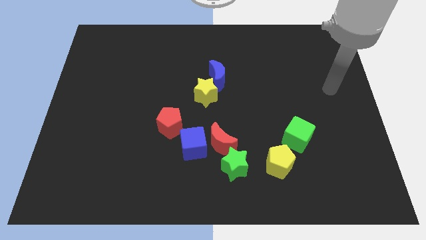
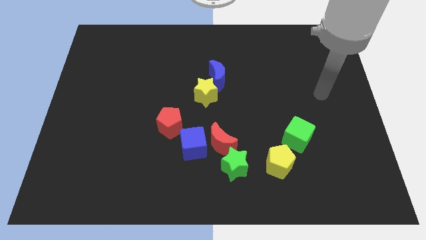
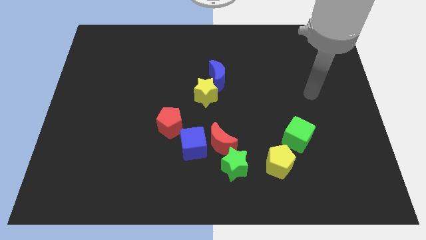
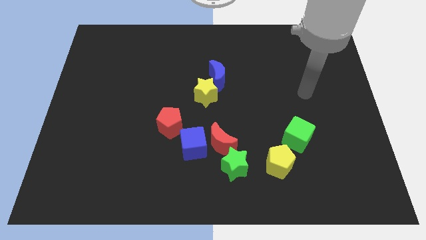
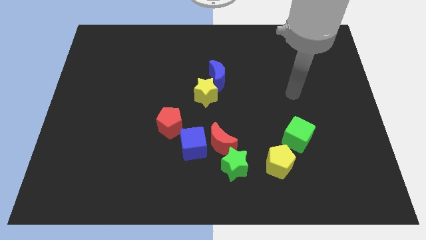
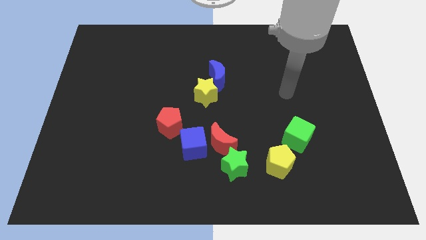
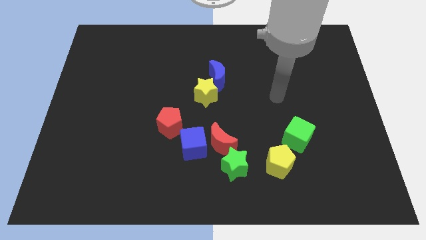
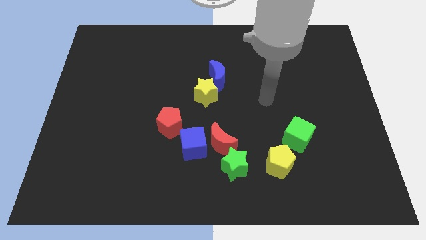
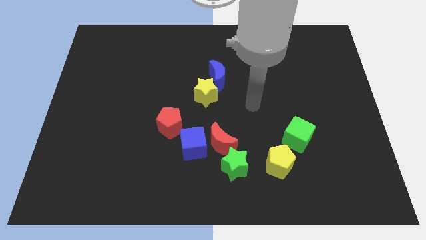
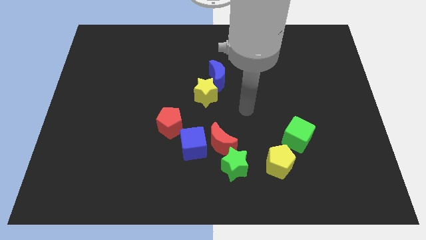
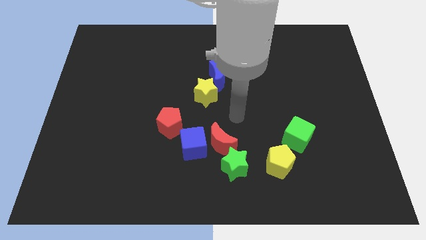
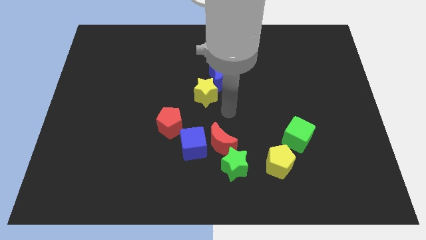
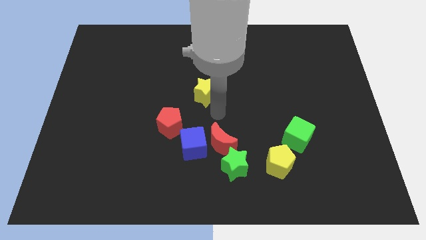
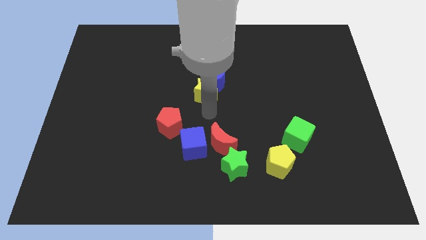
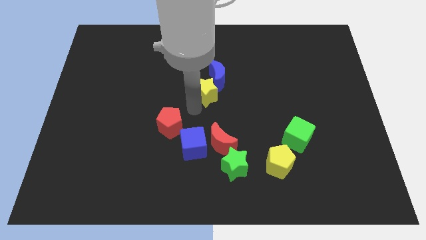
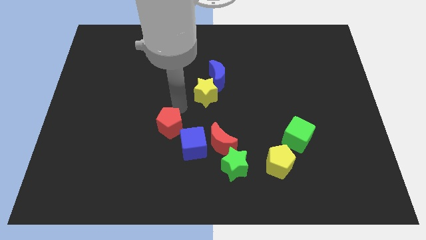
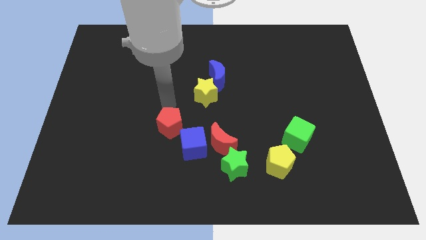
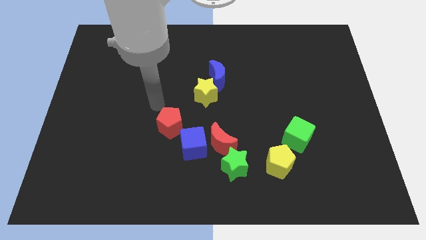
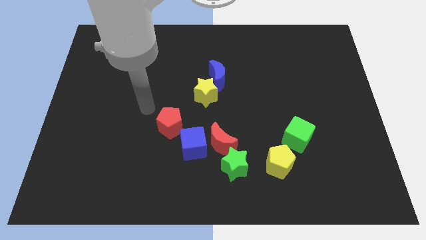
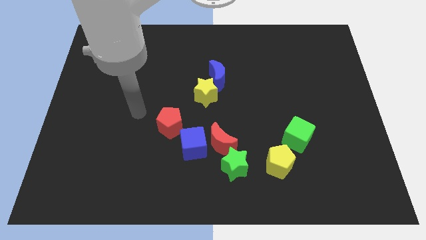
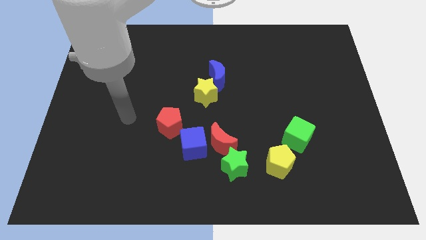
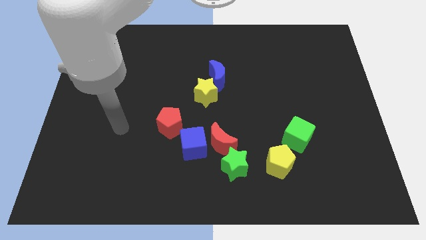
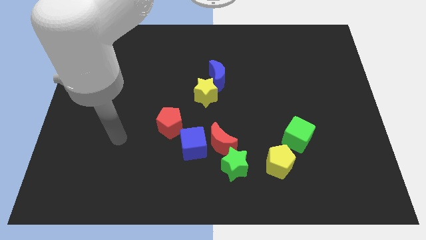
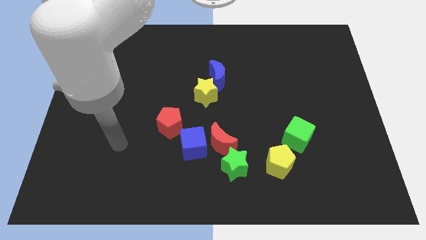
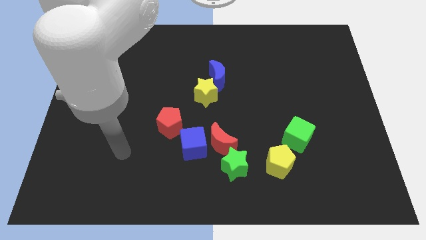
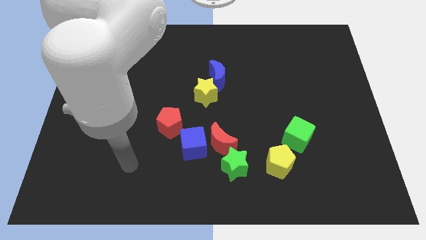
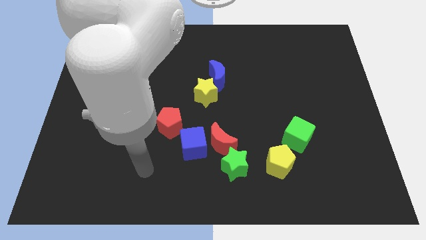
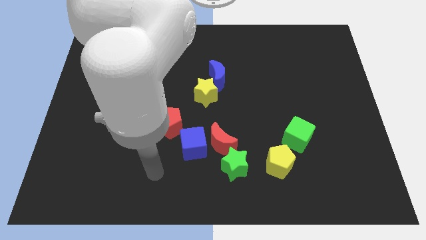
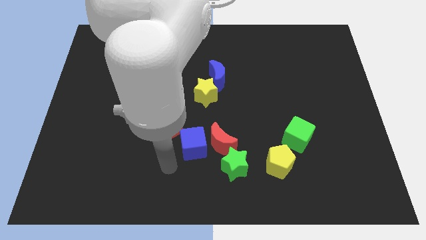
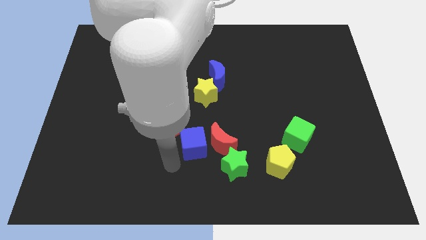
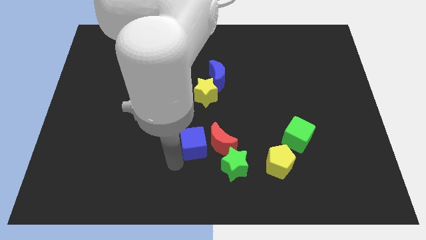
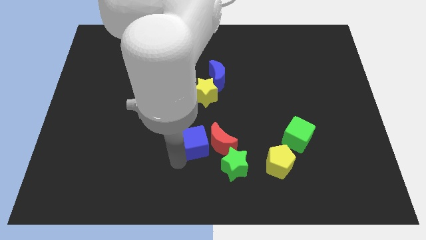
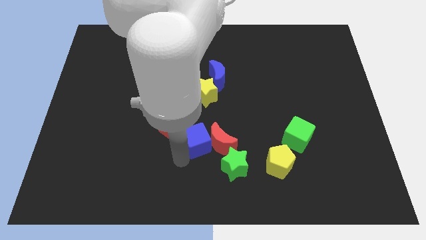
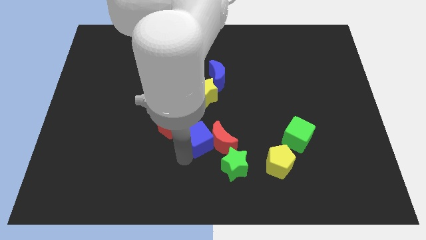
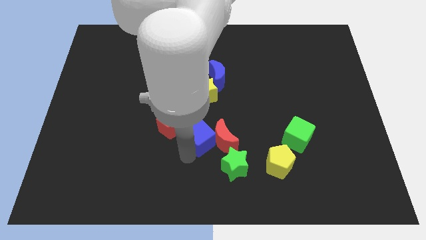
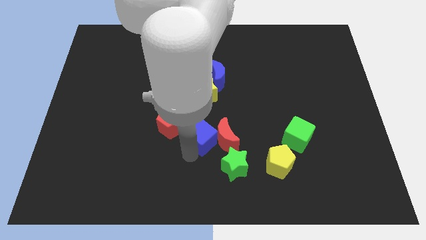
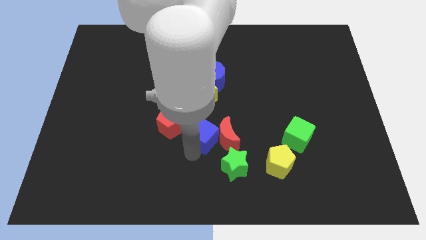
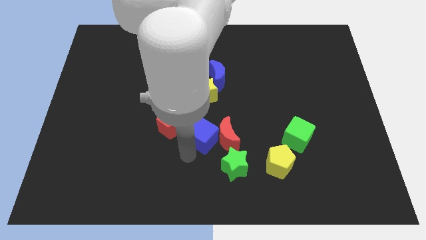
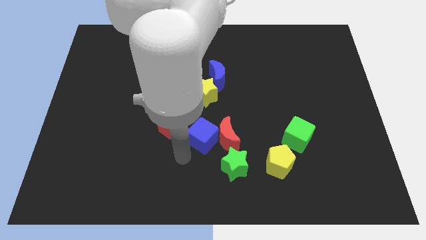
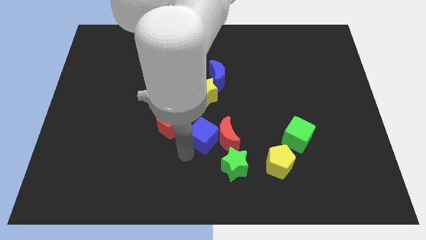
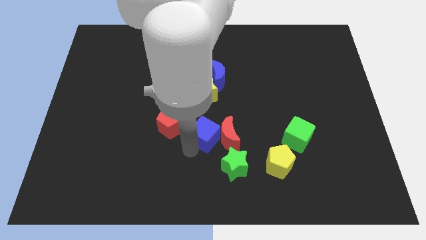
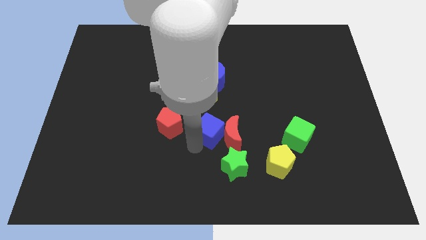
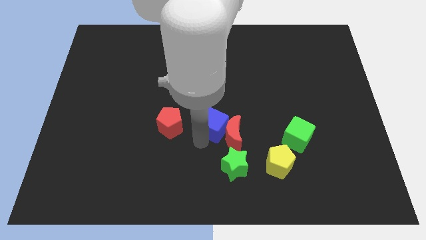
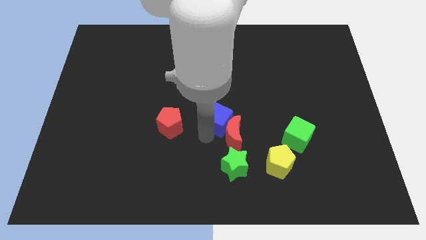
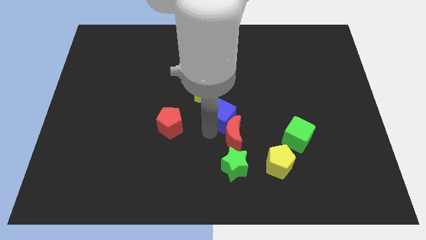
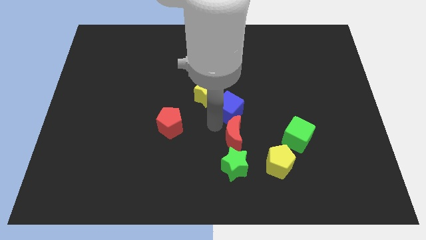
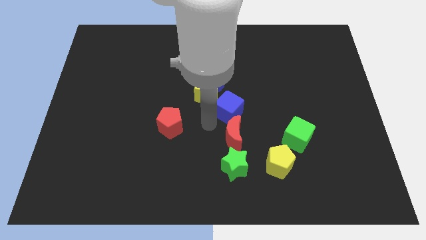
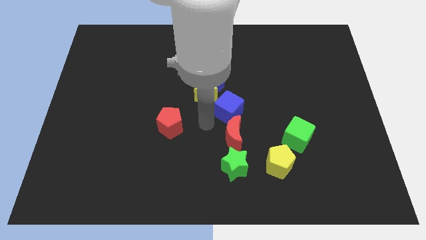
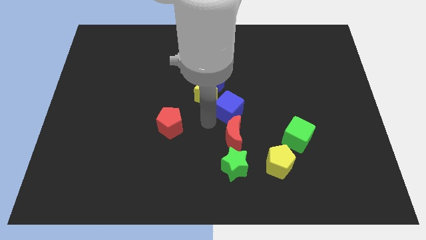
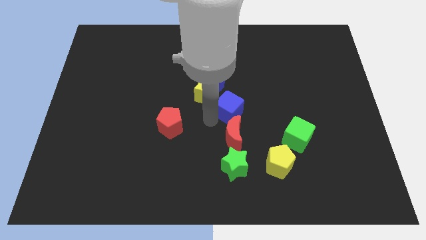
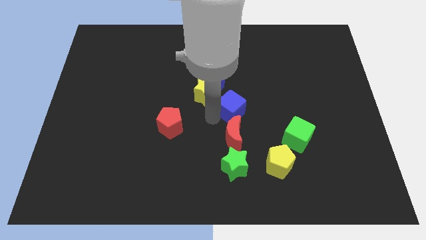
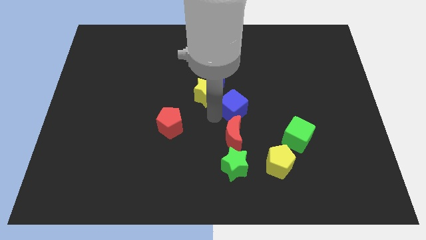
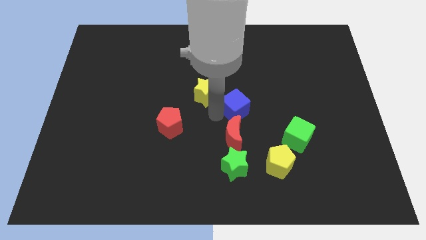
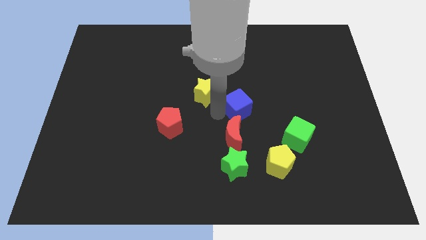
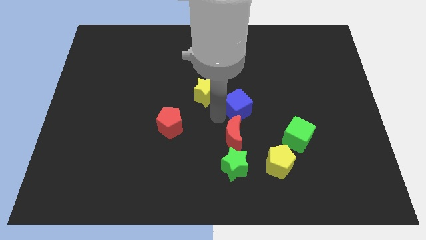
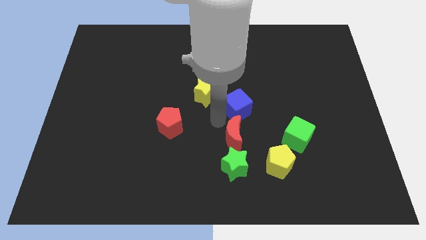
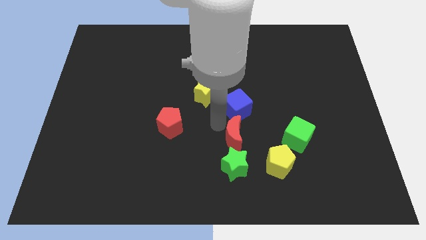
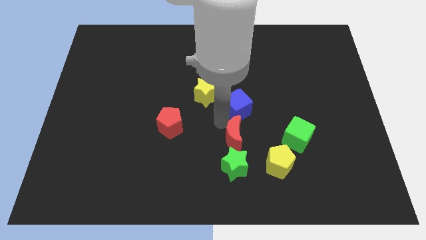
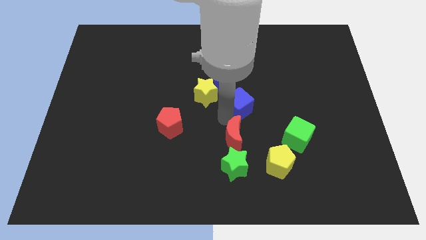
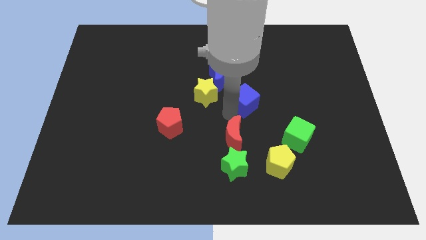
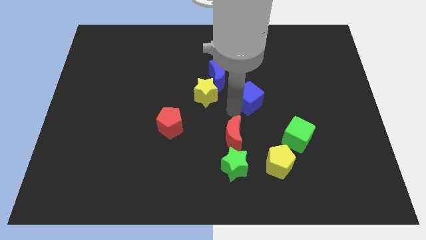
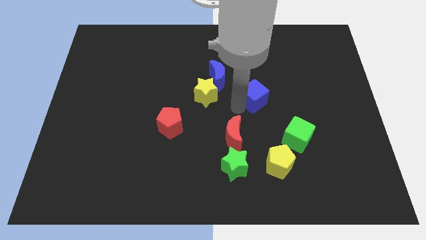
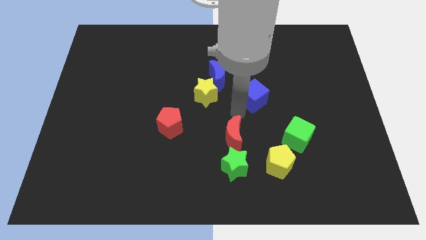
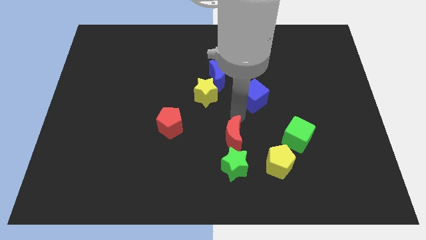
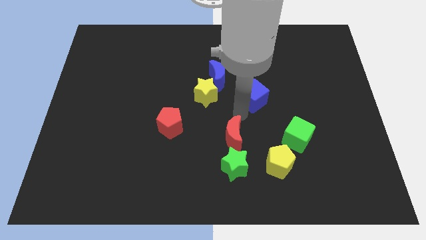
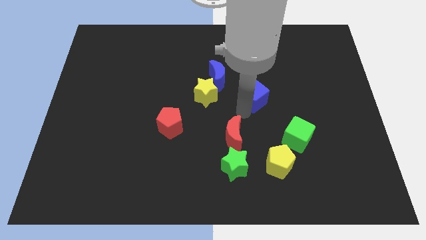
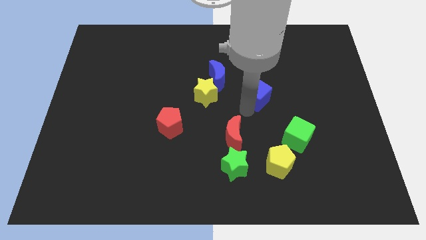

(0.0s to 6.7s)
move the blue cube upwards and to the right diagonally

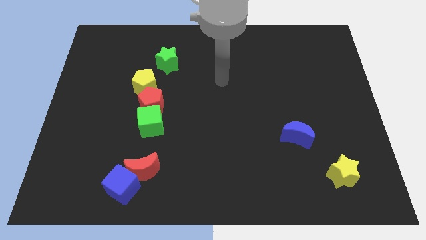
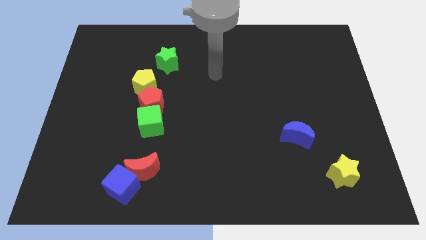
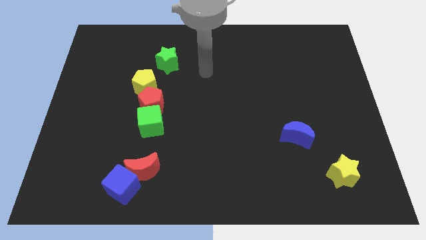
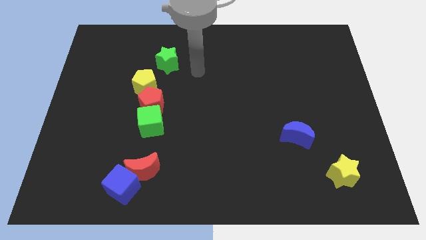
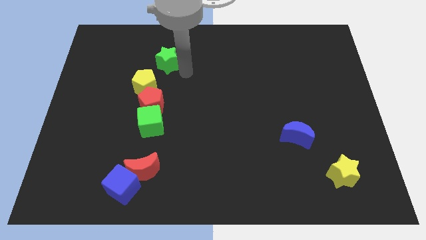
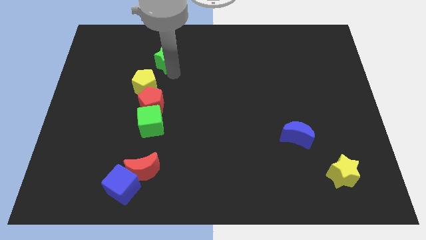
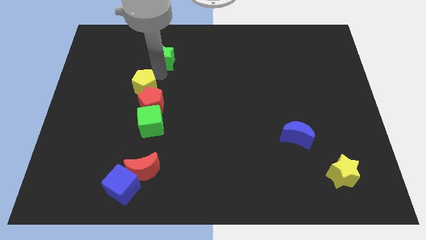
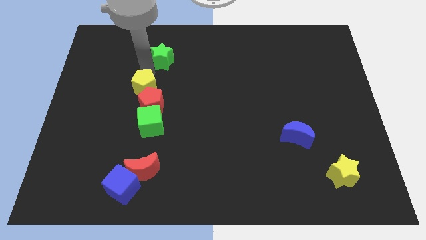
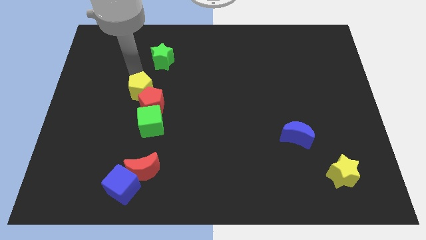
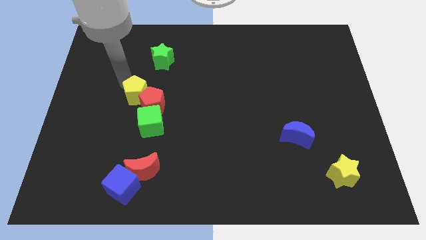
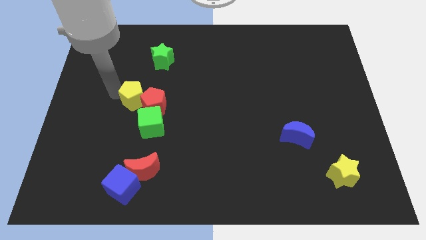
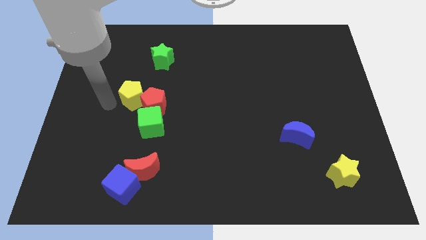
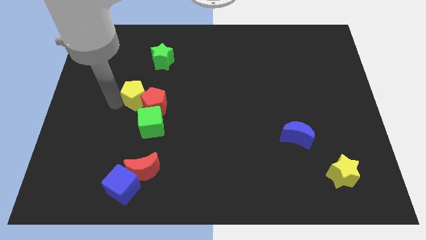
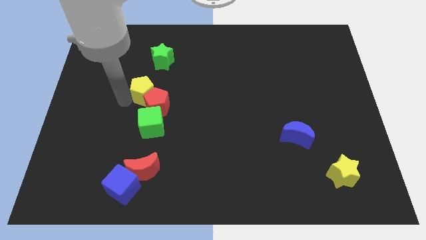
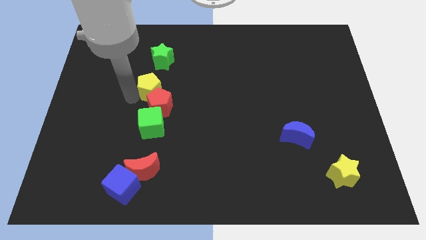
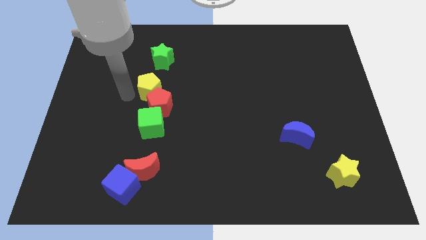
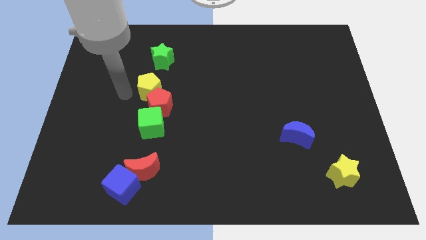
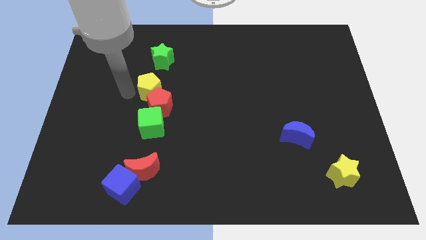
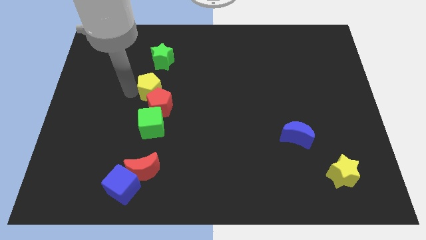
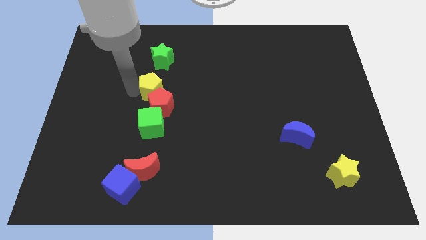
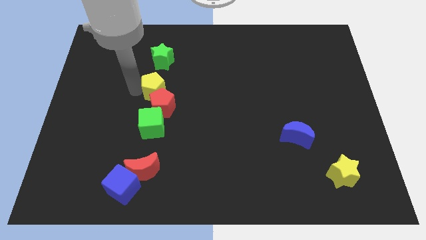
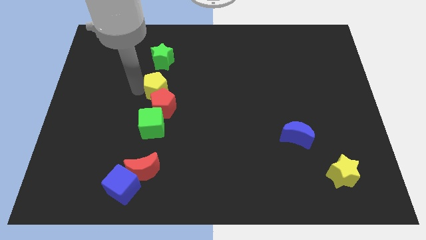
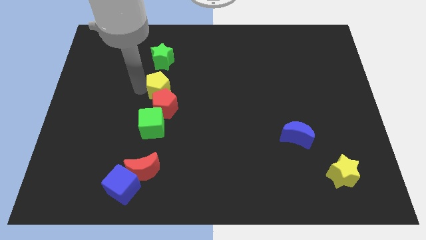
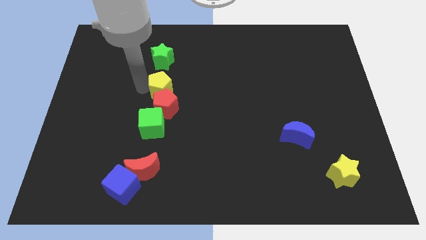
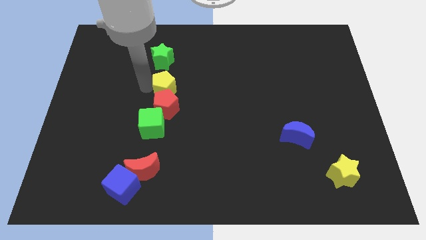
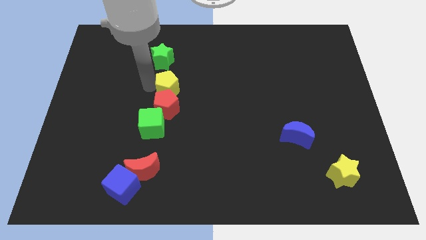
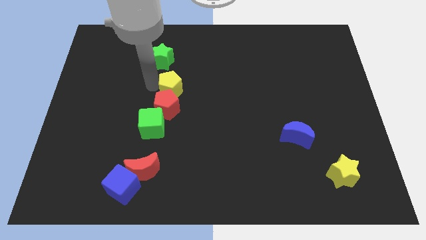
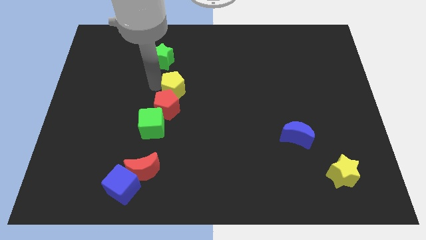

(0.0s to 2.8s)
slide the yellow pentagon right slightly
